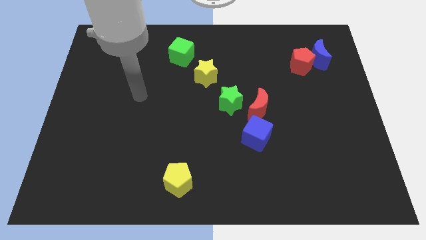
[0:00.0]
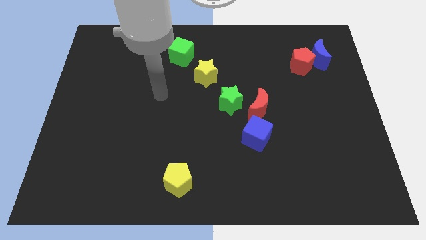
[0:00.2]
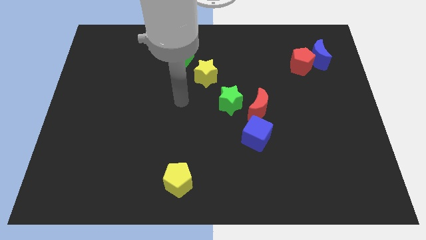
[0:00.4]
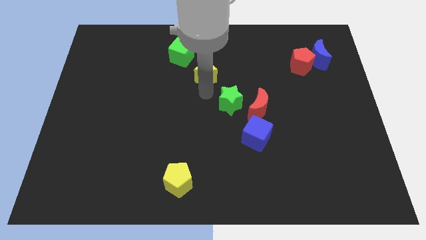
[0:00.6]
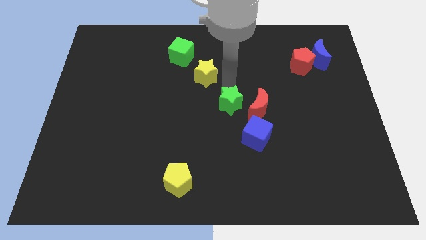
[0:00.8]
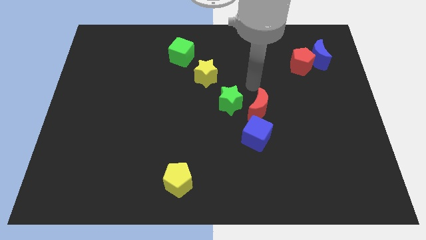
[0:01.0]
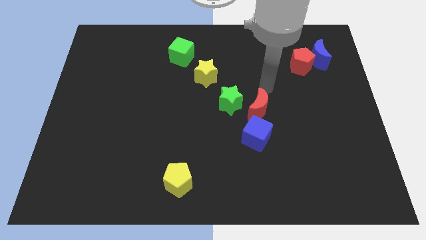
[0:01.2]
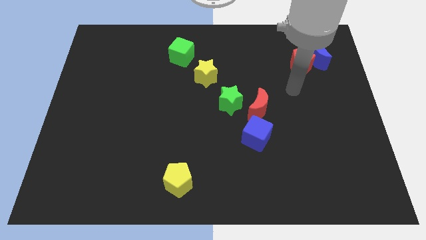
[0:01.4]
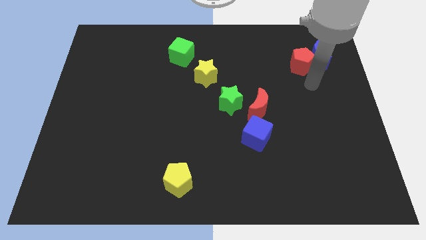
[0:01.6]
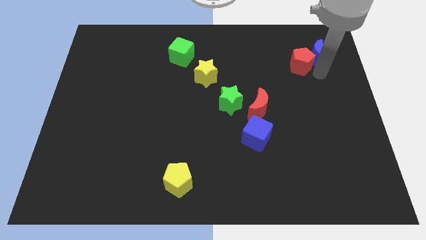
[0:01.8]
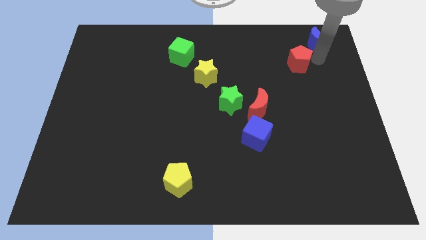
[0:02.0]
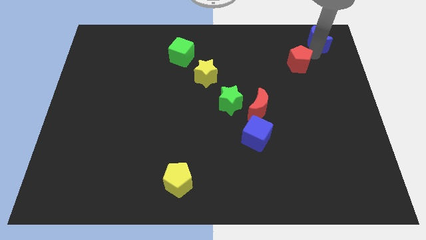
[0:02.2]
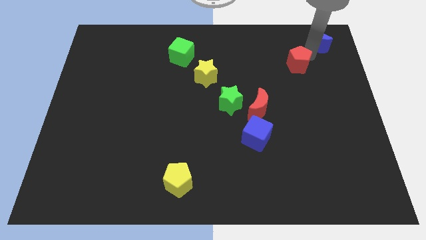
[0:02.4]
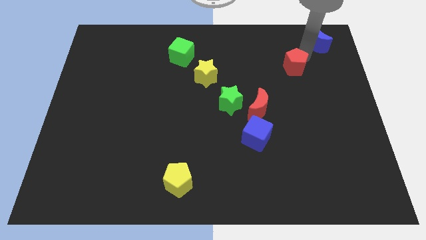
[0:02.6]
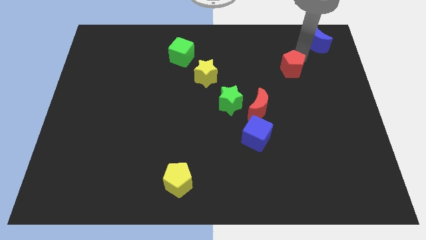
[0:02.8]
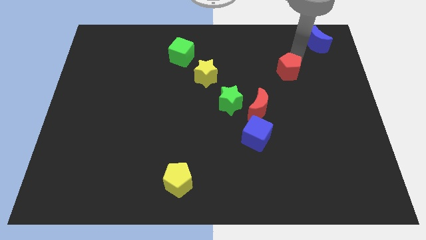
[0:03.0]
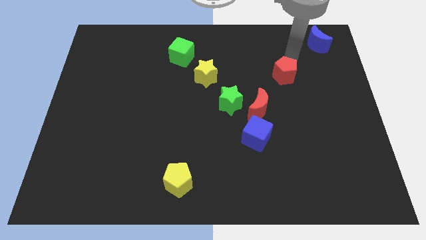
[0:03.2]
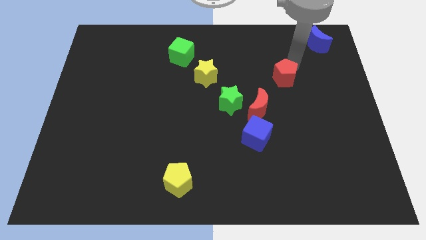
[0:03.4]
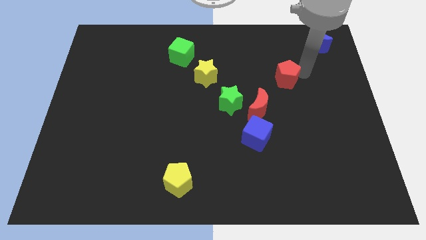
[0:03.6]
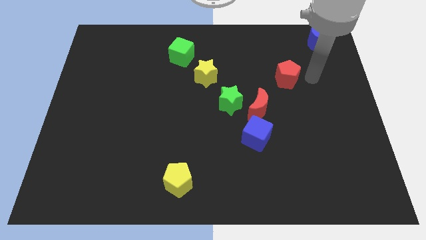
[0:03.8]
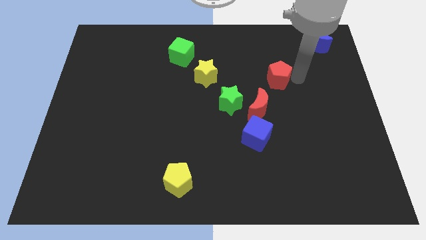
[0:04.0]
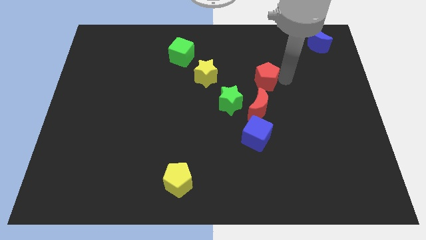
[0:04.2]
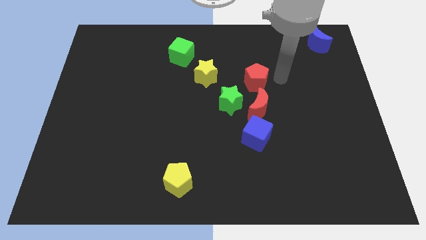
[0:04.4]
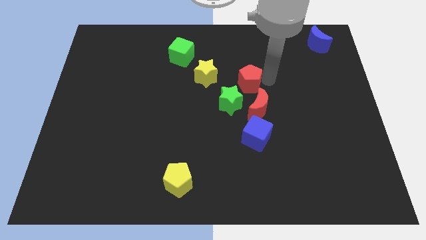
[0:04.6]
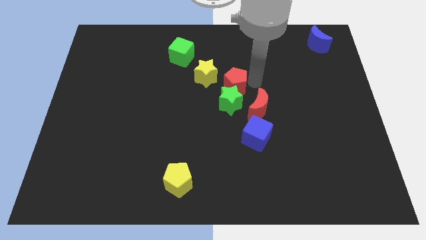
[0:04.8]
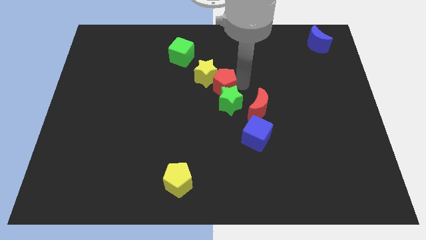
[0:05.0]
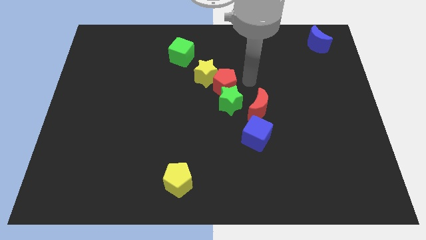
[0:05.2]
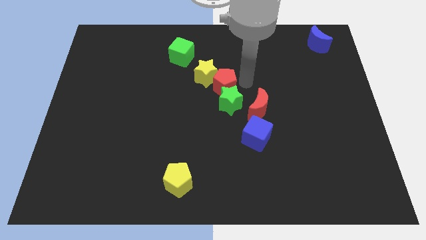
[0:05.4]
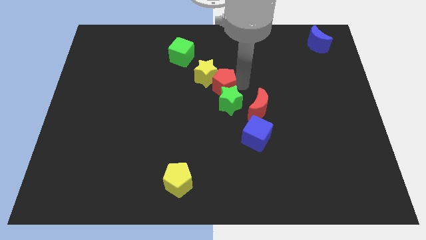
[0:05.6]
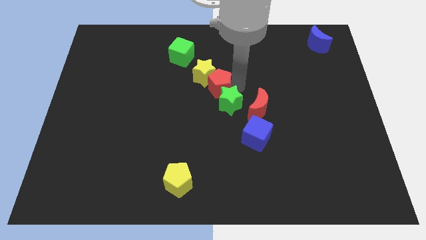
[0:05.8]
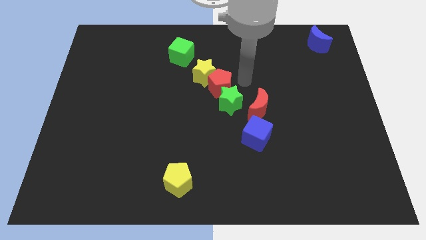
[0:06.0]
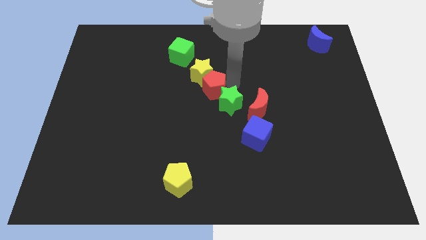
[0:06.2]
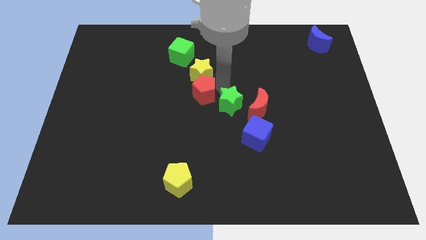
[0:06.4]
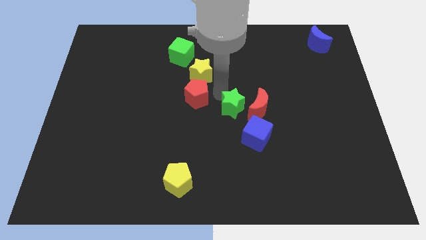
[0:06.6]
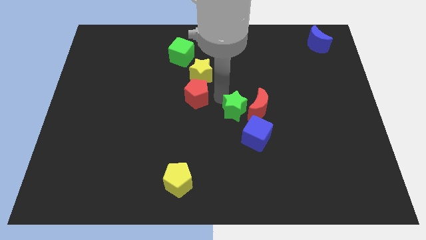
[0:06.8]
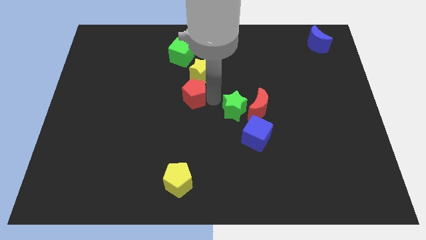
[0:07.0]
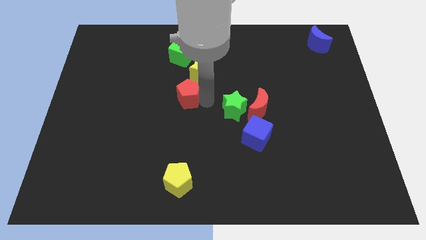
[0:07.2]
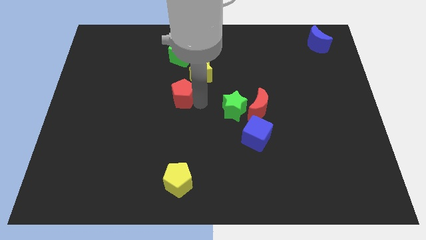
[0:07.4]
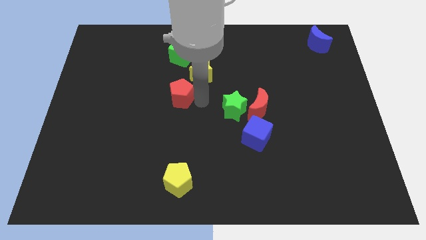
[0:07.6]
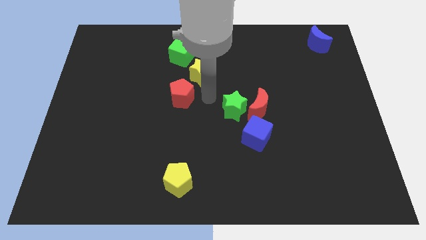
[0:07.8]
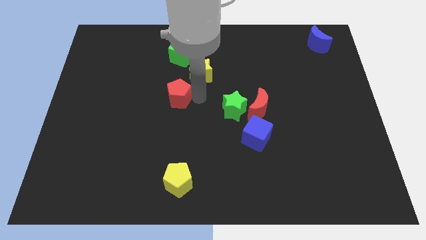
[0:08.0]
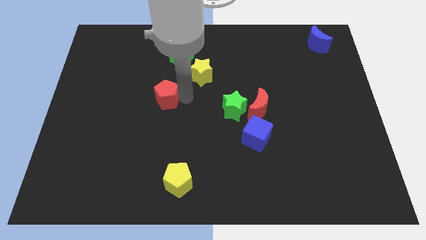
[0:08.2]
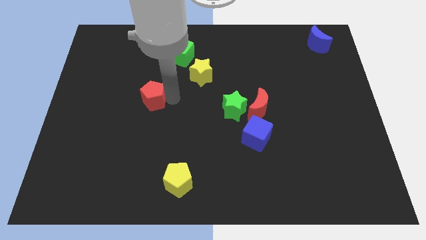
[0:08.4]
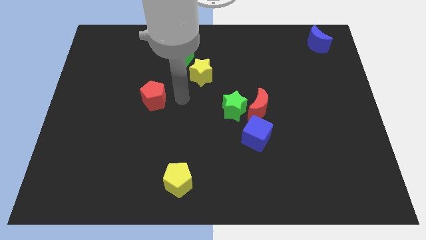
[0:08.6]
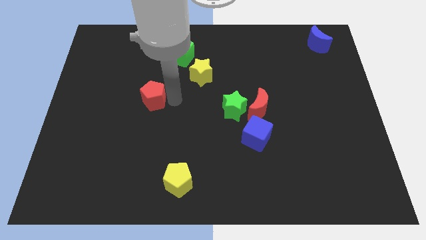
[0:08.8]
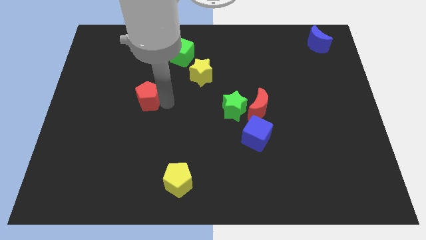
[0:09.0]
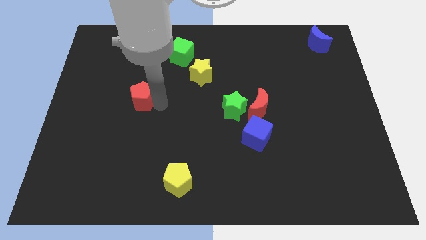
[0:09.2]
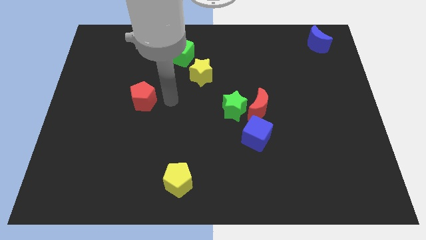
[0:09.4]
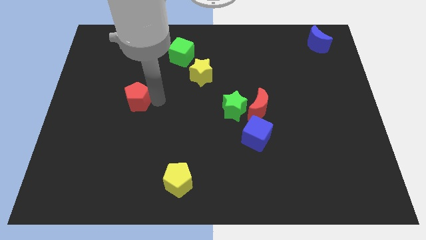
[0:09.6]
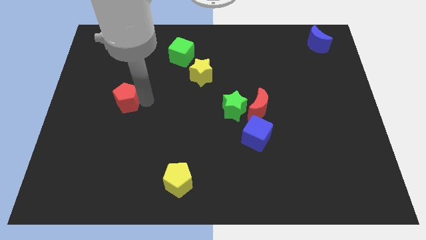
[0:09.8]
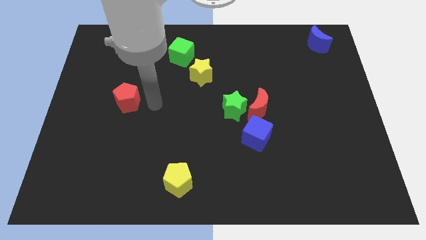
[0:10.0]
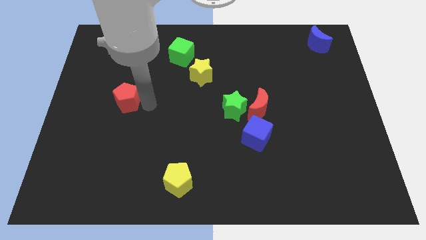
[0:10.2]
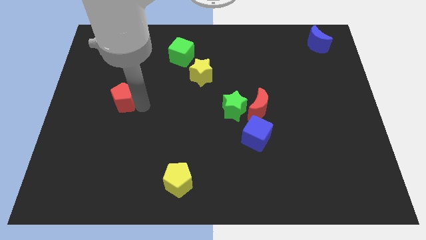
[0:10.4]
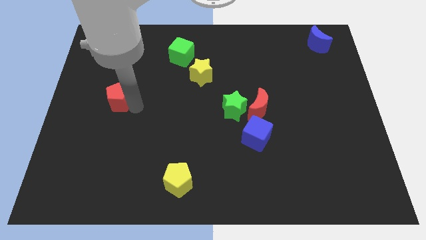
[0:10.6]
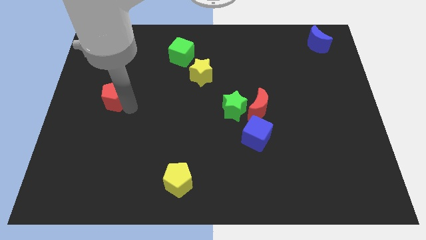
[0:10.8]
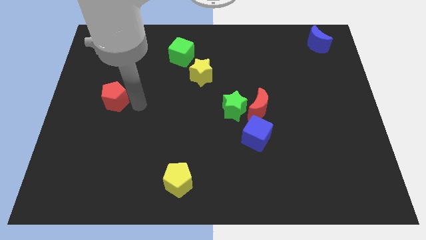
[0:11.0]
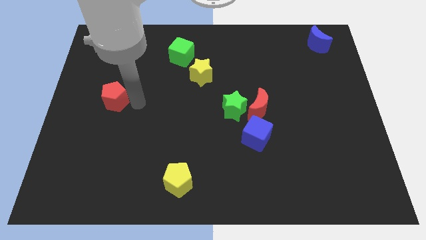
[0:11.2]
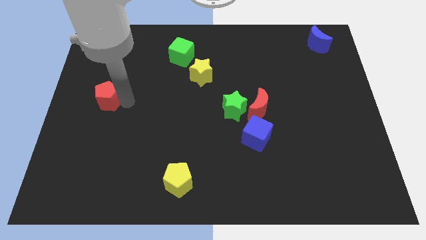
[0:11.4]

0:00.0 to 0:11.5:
push the red pentagon to the center left

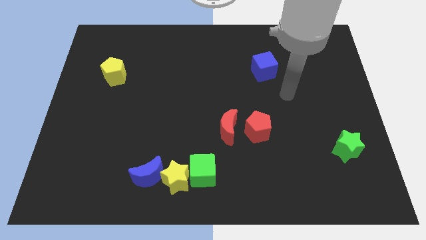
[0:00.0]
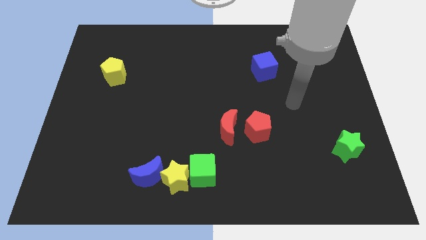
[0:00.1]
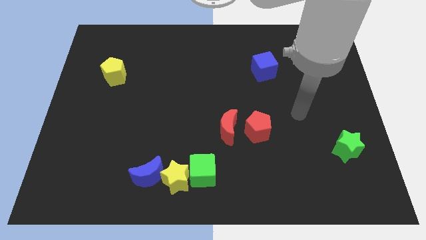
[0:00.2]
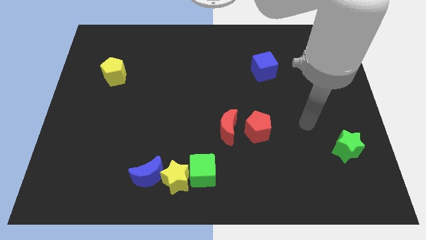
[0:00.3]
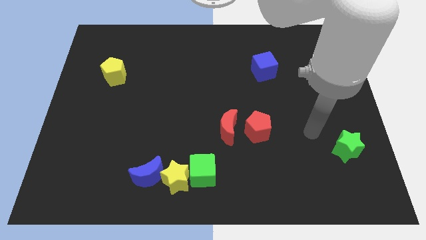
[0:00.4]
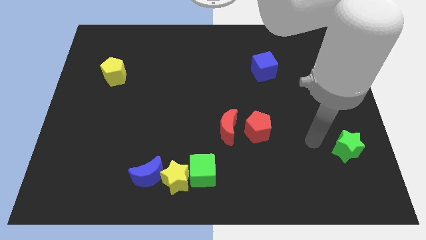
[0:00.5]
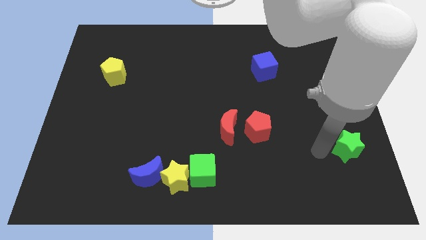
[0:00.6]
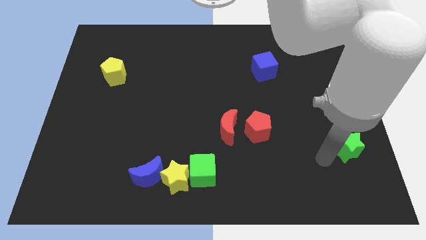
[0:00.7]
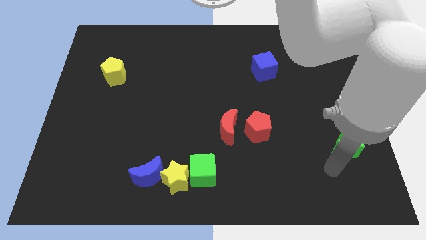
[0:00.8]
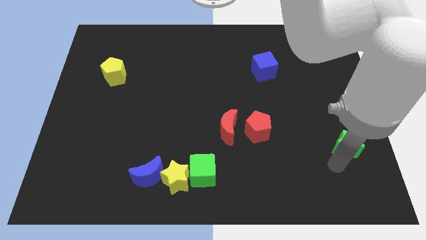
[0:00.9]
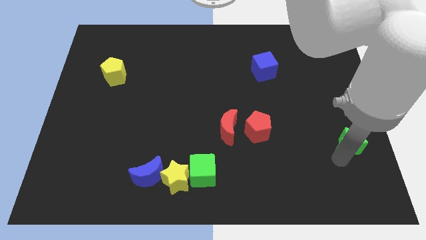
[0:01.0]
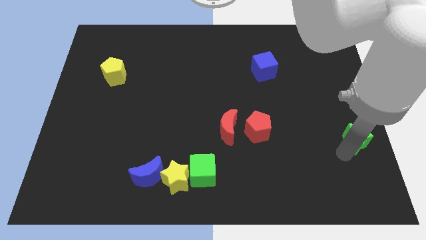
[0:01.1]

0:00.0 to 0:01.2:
put the green star to the center right
